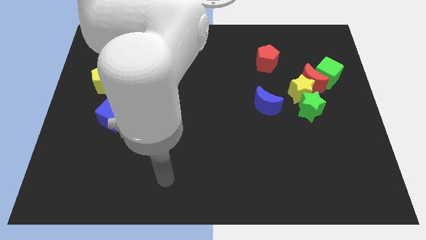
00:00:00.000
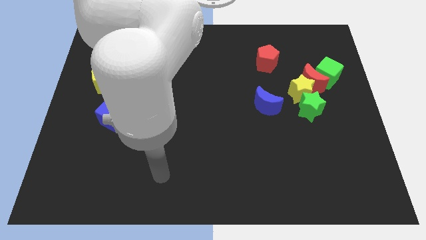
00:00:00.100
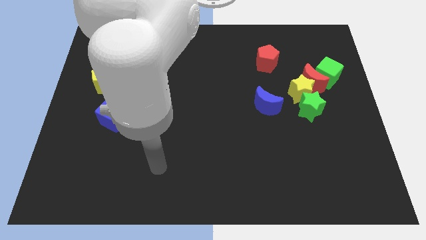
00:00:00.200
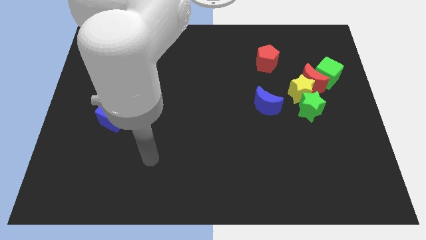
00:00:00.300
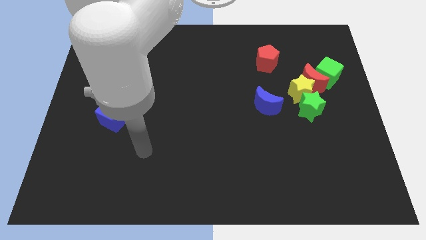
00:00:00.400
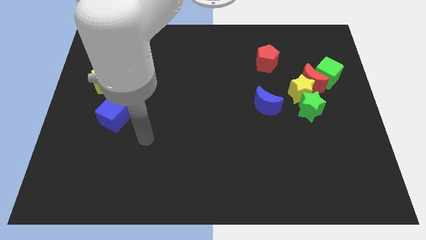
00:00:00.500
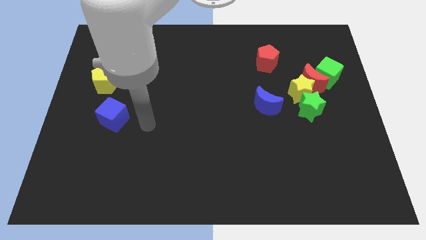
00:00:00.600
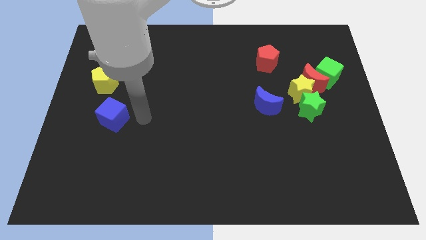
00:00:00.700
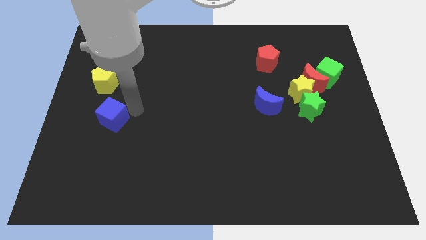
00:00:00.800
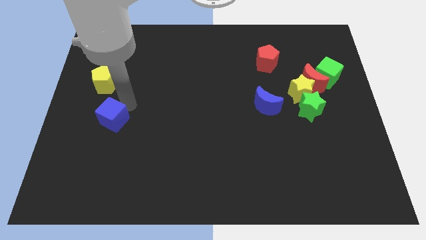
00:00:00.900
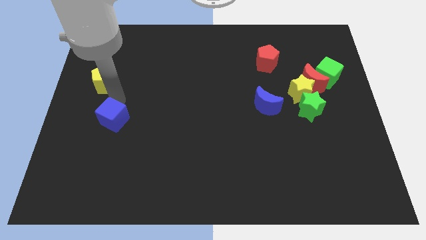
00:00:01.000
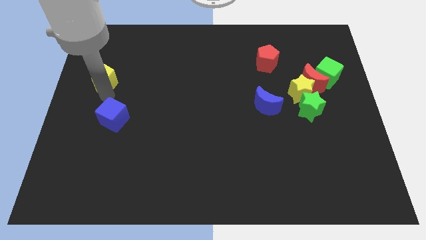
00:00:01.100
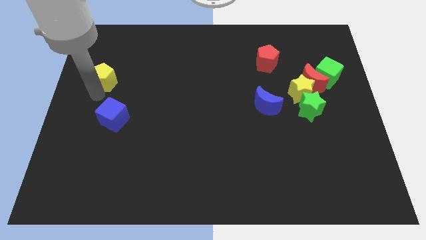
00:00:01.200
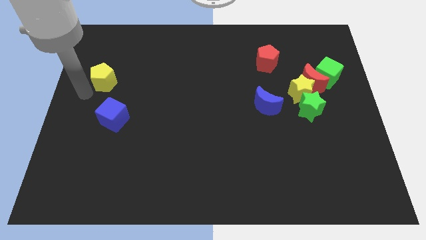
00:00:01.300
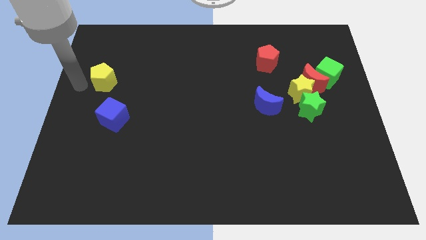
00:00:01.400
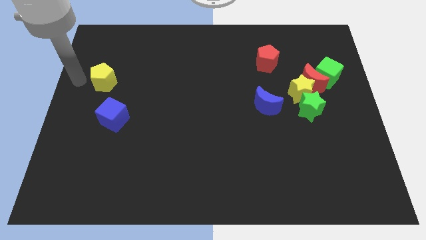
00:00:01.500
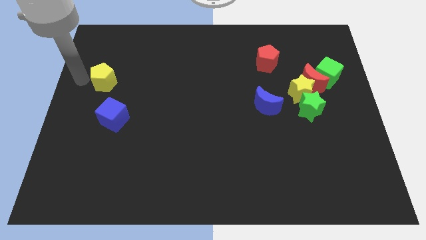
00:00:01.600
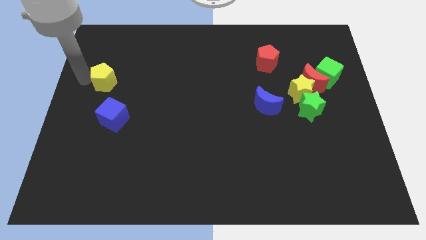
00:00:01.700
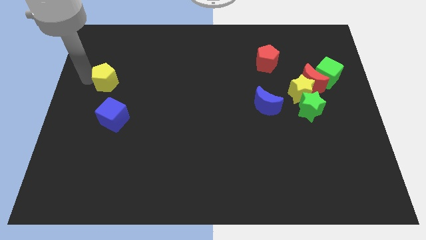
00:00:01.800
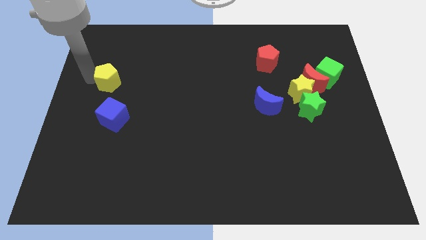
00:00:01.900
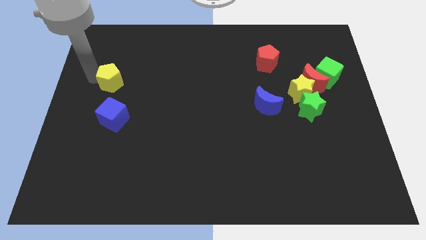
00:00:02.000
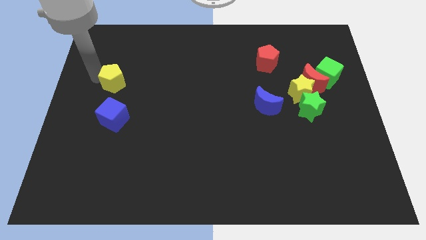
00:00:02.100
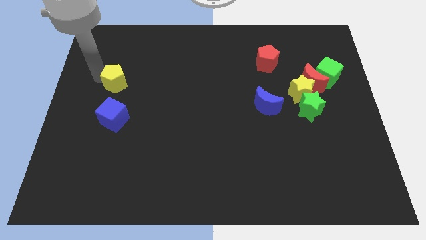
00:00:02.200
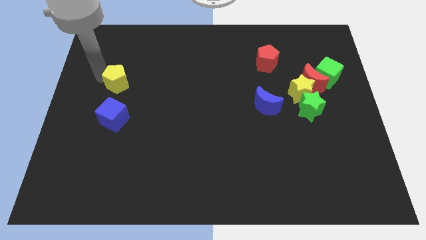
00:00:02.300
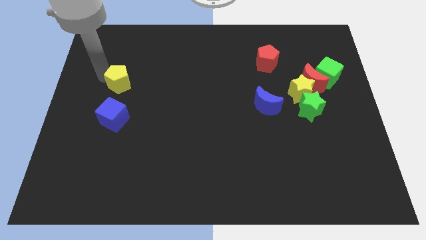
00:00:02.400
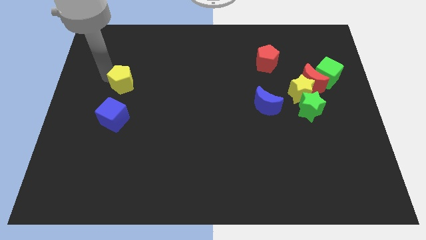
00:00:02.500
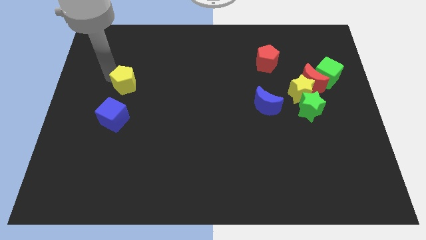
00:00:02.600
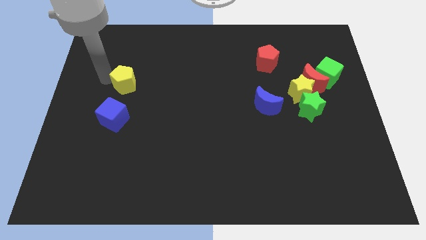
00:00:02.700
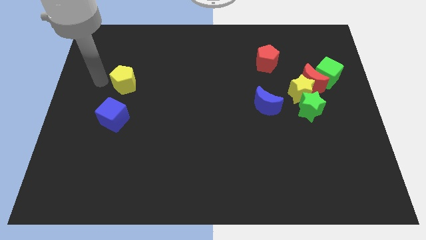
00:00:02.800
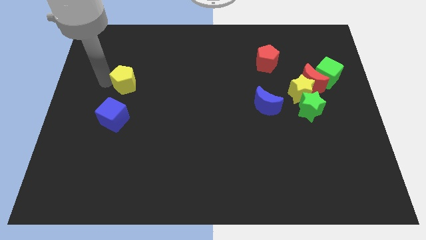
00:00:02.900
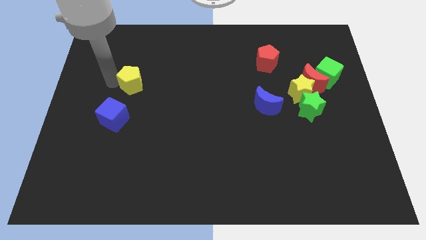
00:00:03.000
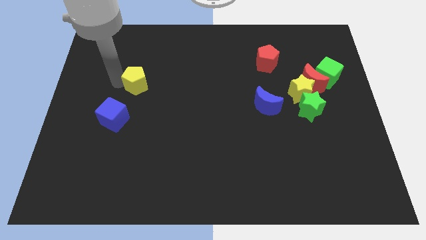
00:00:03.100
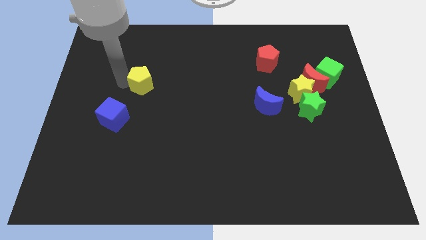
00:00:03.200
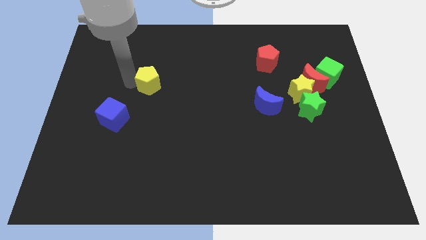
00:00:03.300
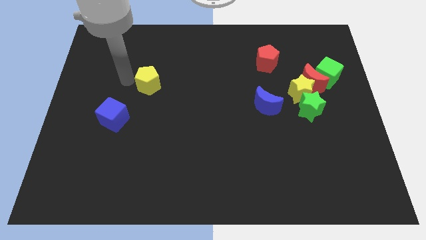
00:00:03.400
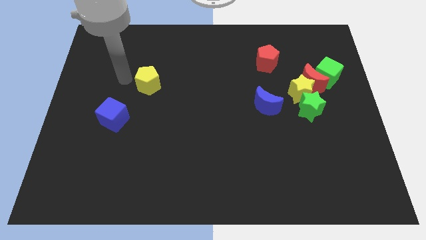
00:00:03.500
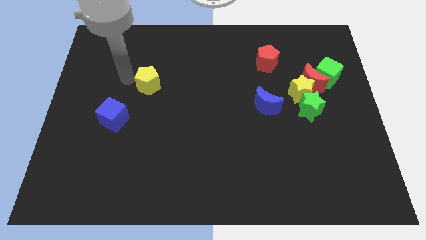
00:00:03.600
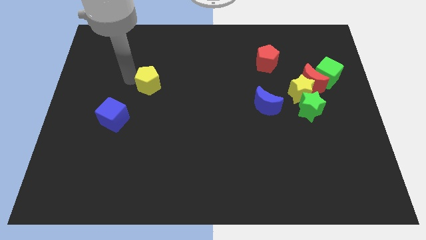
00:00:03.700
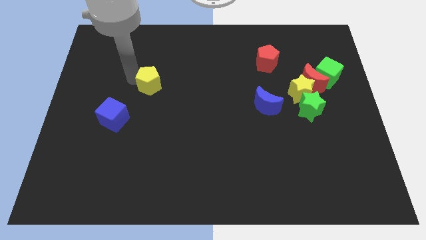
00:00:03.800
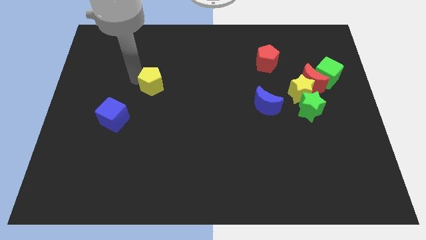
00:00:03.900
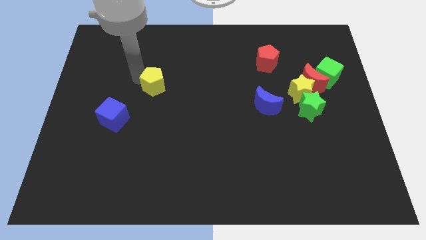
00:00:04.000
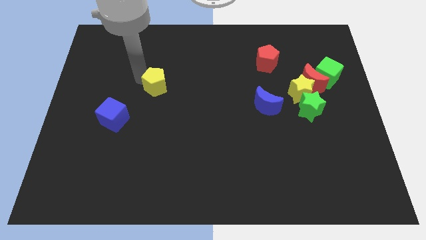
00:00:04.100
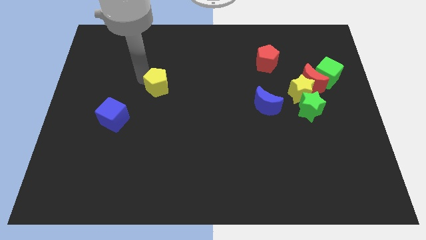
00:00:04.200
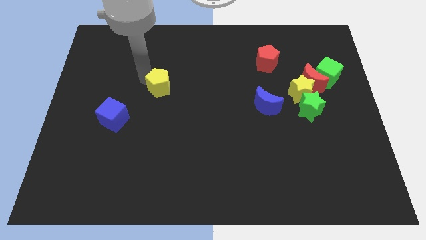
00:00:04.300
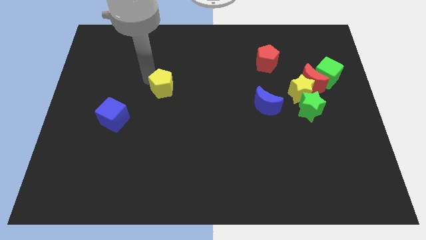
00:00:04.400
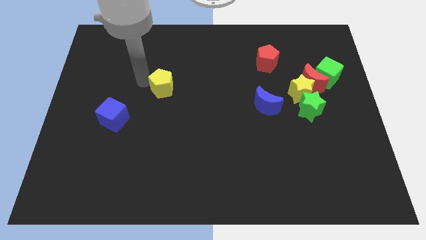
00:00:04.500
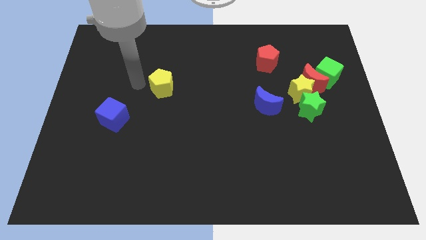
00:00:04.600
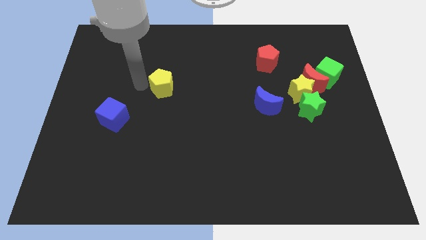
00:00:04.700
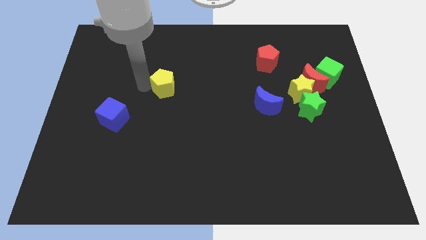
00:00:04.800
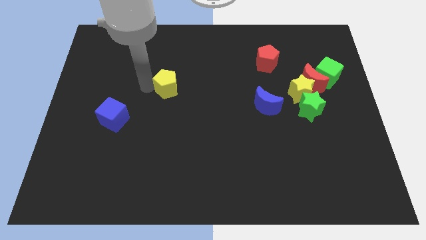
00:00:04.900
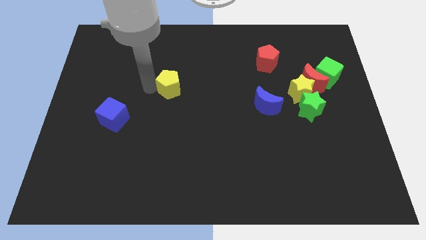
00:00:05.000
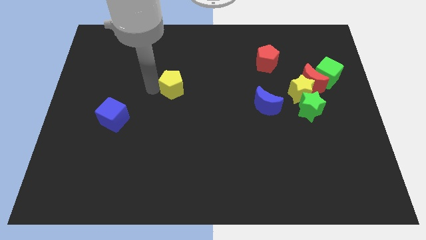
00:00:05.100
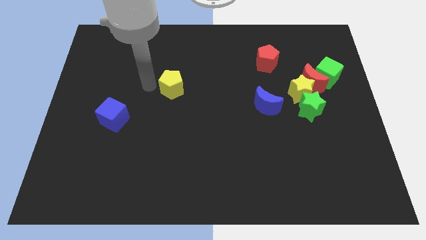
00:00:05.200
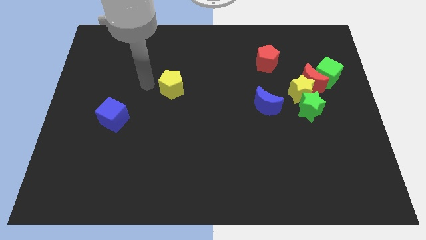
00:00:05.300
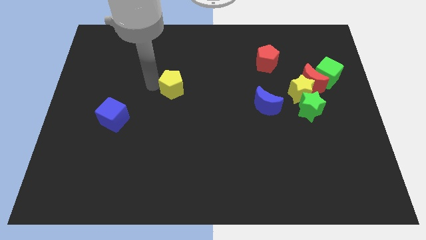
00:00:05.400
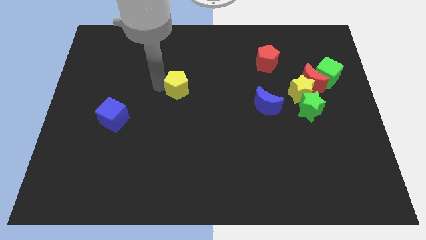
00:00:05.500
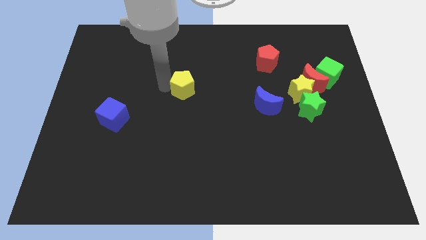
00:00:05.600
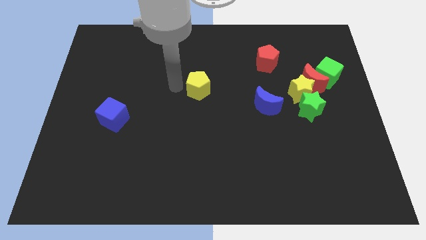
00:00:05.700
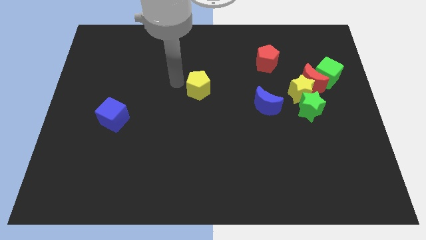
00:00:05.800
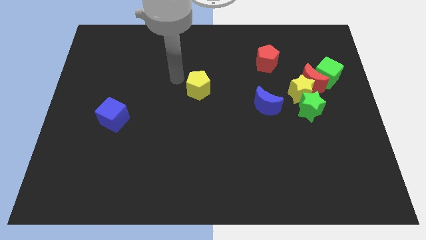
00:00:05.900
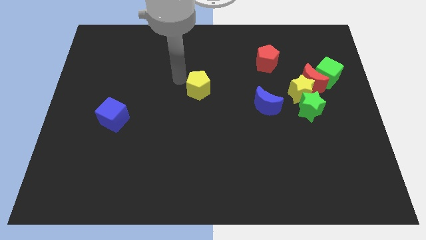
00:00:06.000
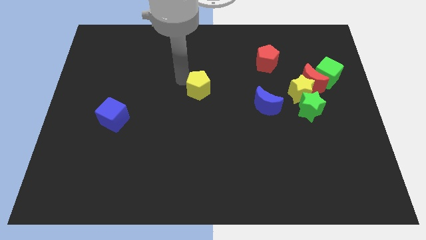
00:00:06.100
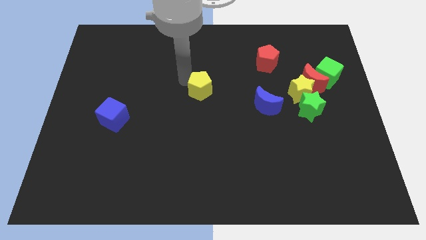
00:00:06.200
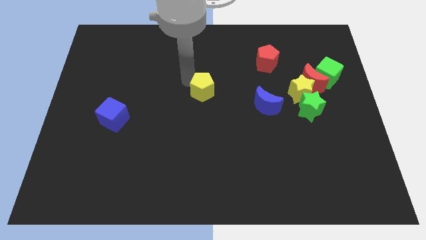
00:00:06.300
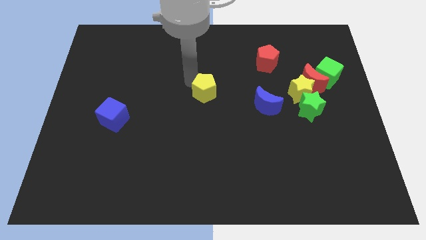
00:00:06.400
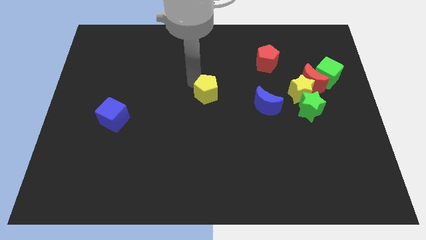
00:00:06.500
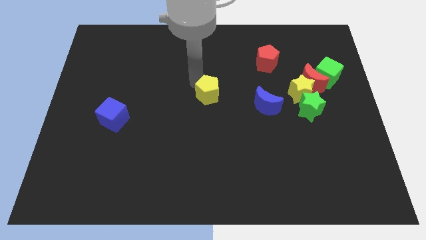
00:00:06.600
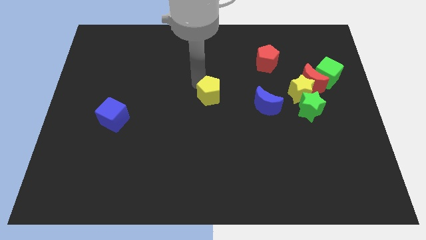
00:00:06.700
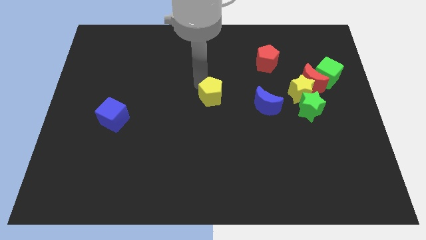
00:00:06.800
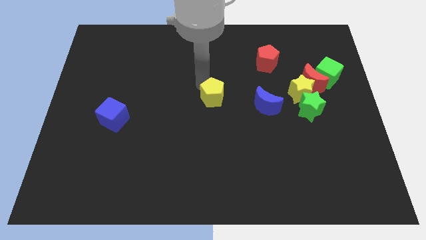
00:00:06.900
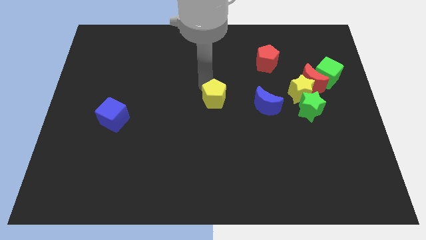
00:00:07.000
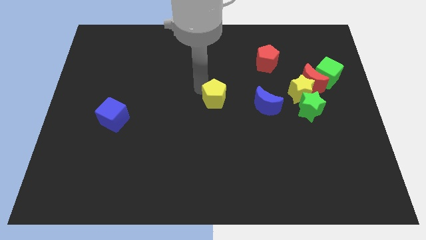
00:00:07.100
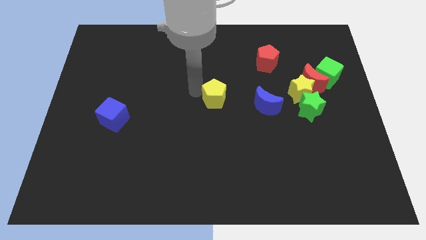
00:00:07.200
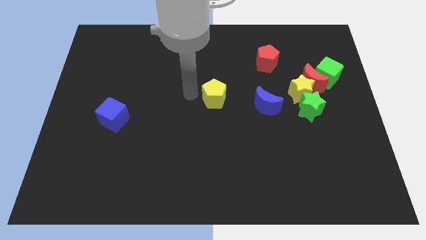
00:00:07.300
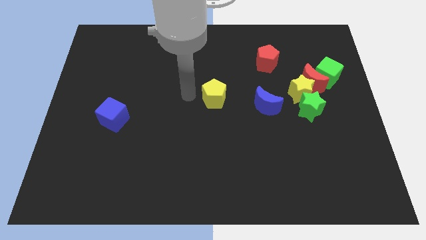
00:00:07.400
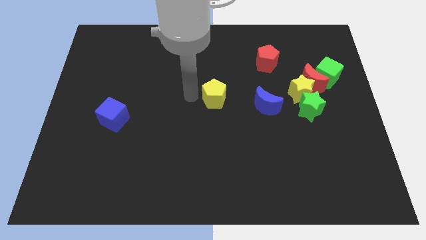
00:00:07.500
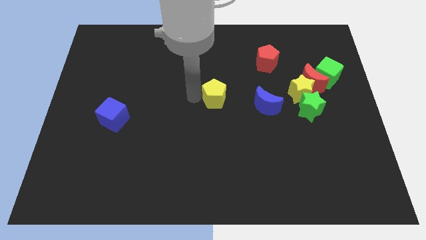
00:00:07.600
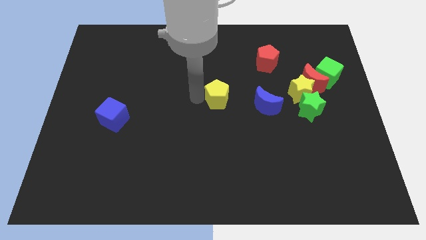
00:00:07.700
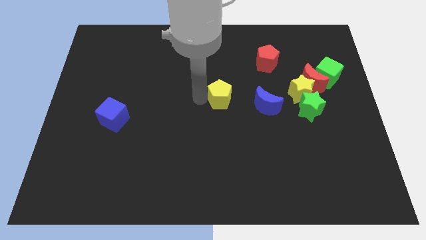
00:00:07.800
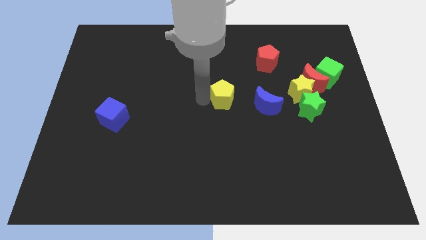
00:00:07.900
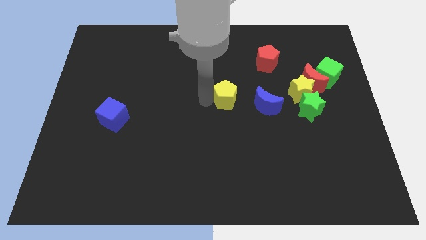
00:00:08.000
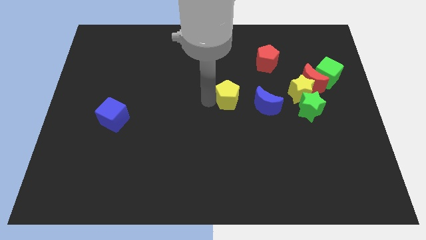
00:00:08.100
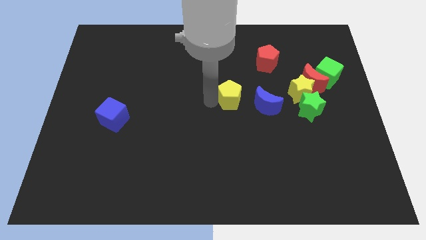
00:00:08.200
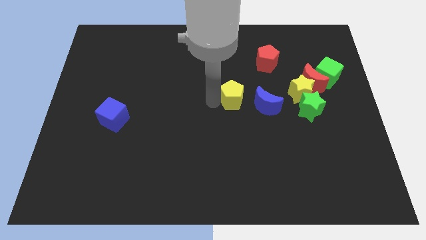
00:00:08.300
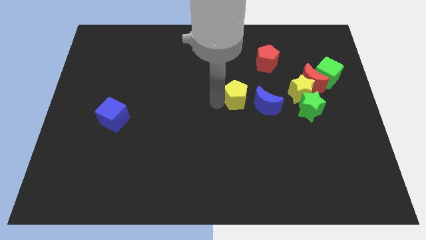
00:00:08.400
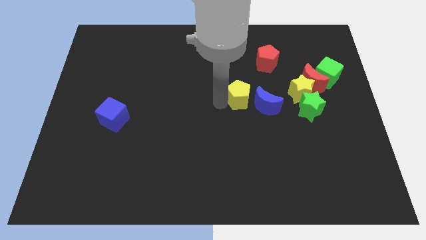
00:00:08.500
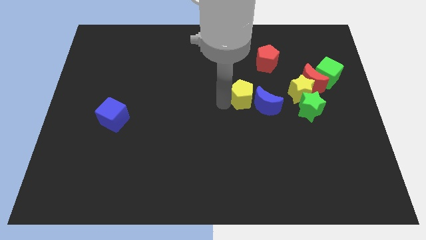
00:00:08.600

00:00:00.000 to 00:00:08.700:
push the yellow pentagon close to the blue moon
